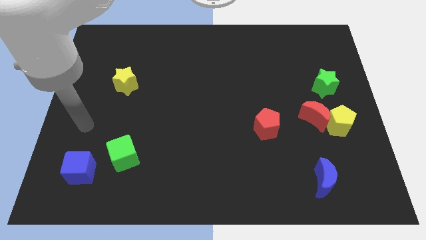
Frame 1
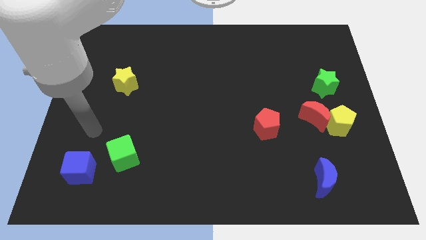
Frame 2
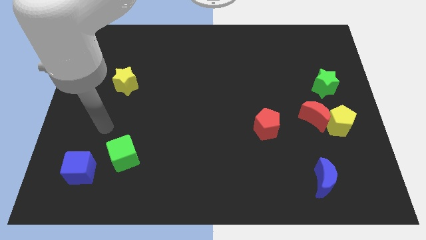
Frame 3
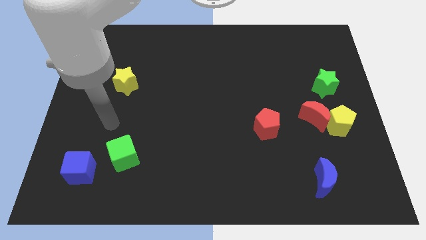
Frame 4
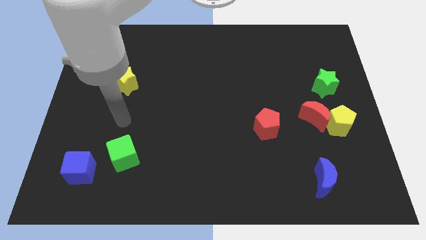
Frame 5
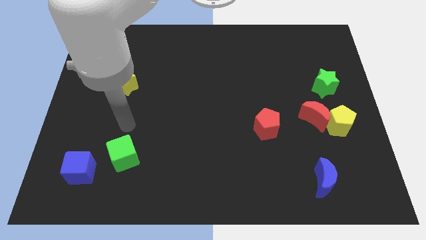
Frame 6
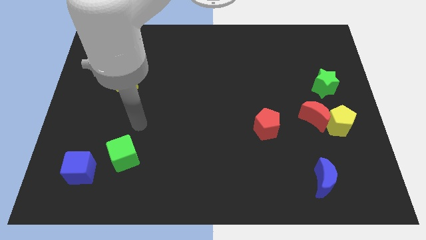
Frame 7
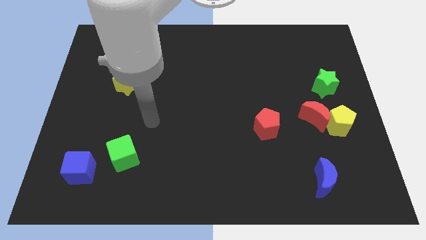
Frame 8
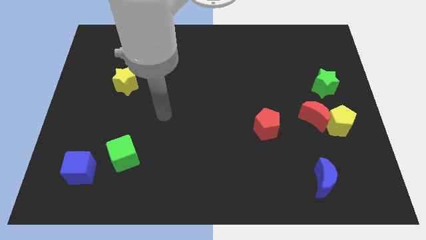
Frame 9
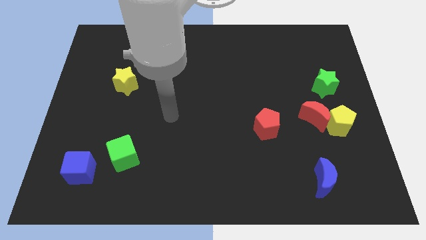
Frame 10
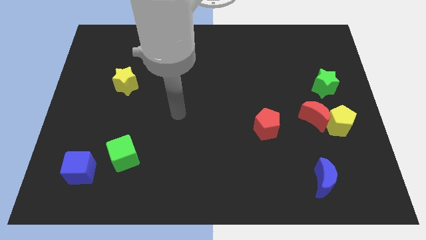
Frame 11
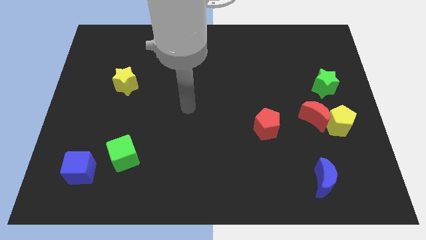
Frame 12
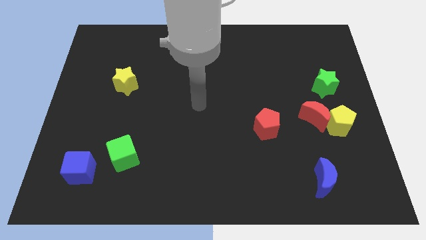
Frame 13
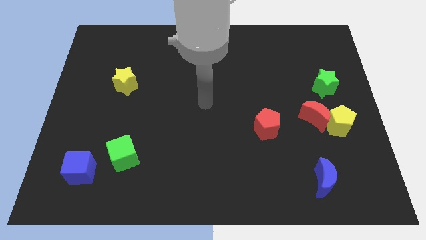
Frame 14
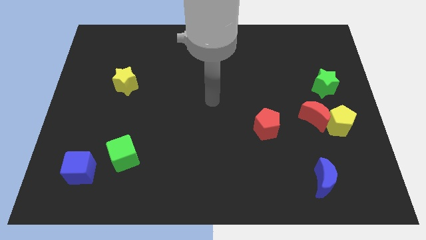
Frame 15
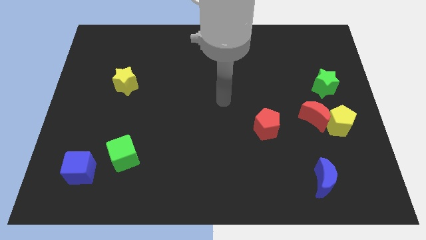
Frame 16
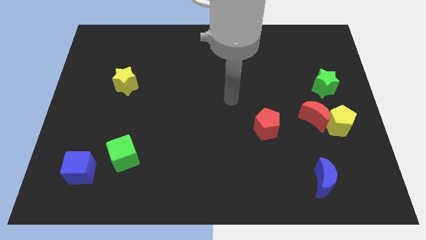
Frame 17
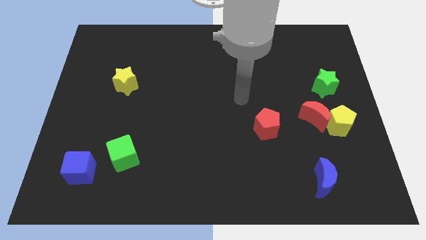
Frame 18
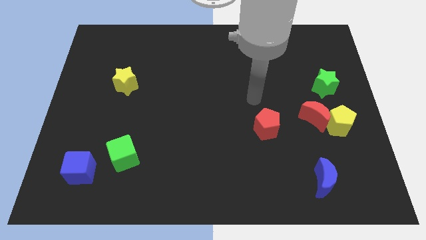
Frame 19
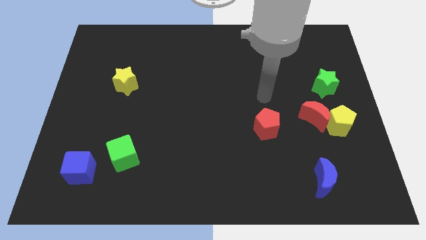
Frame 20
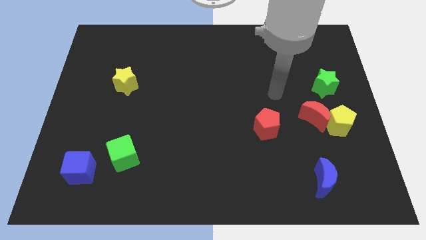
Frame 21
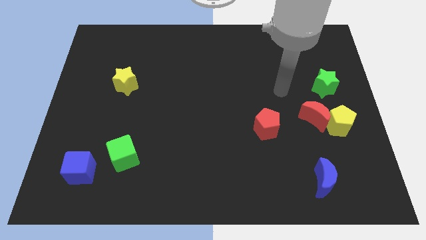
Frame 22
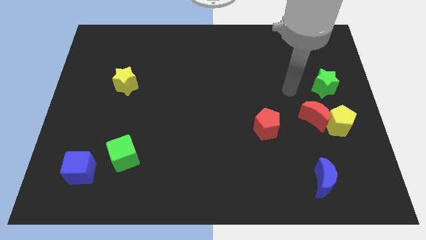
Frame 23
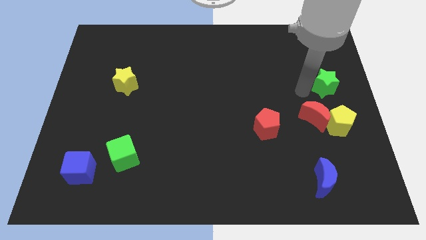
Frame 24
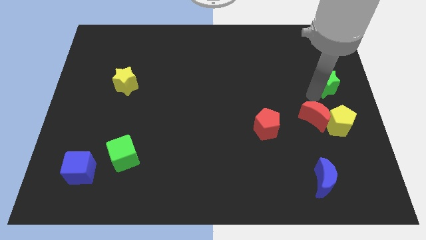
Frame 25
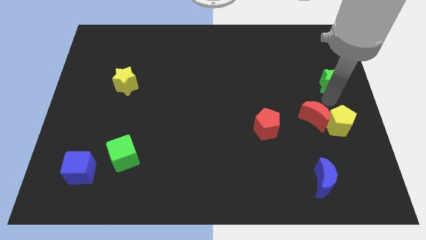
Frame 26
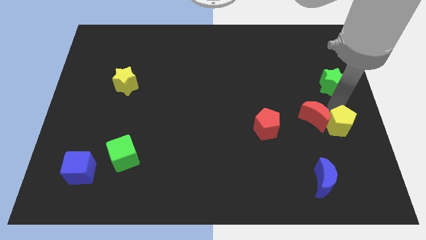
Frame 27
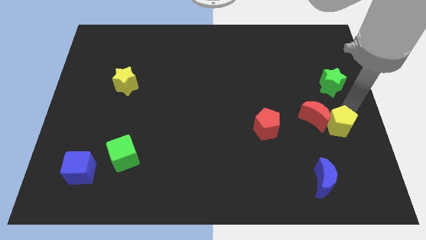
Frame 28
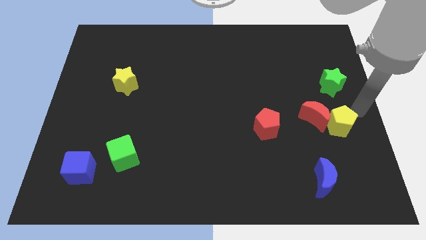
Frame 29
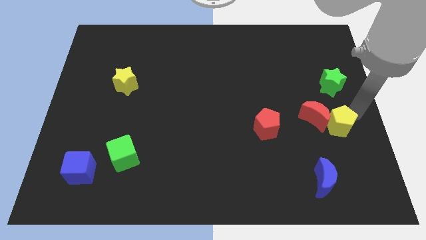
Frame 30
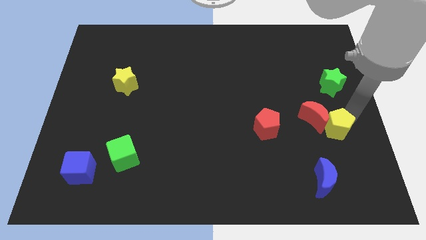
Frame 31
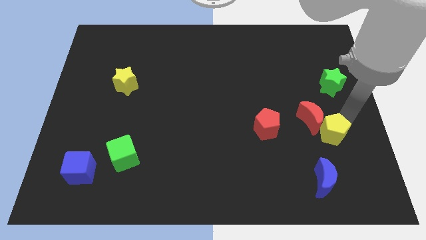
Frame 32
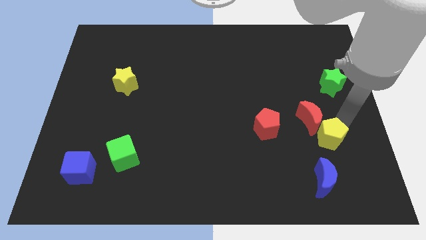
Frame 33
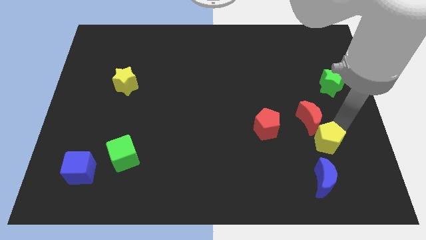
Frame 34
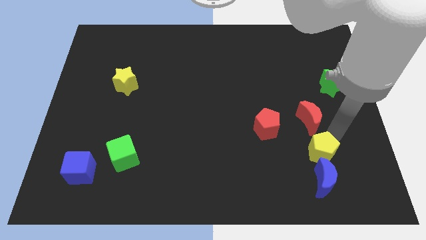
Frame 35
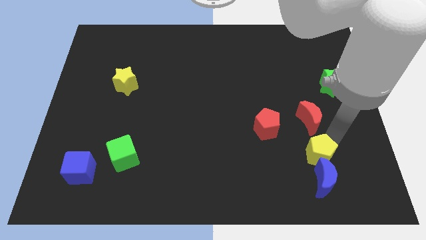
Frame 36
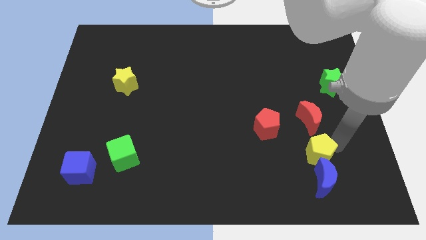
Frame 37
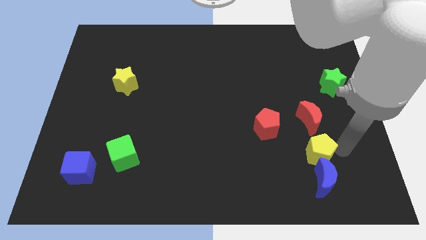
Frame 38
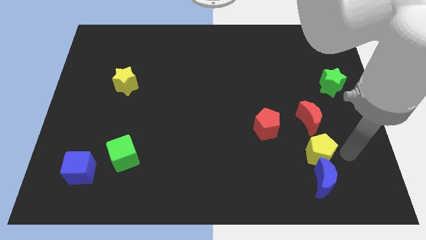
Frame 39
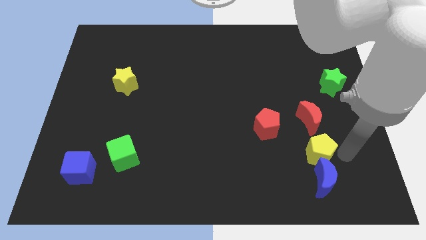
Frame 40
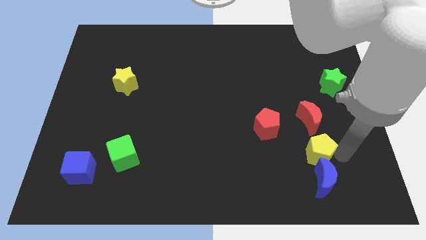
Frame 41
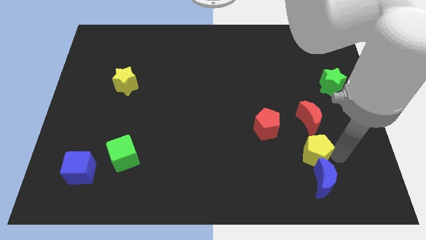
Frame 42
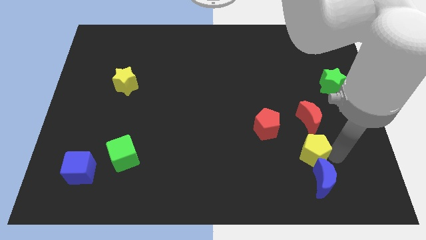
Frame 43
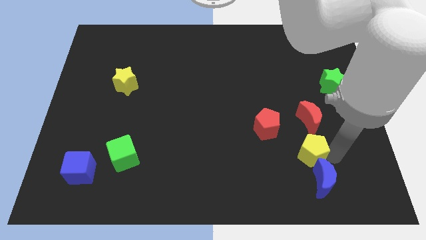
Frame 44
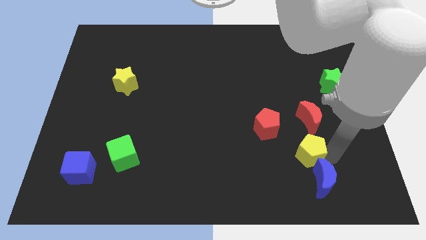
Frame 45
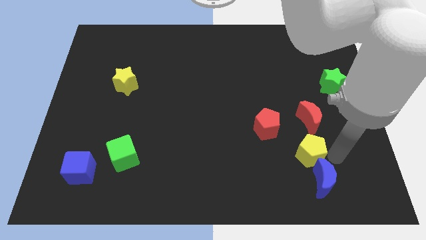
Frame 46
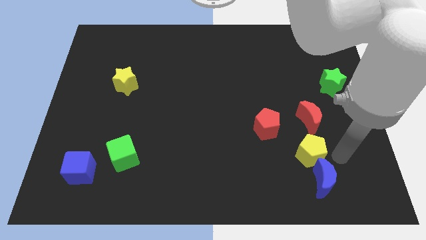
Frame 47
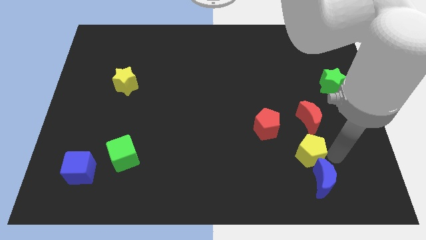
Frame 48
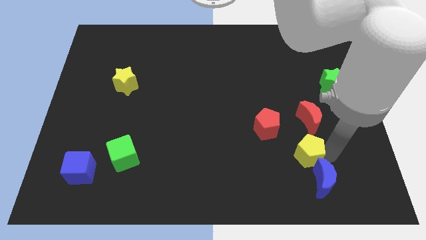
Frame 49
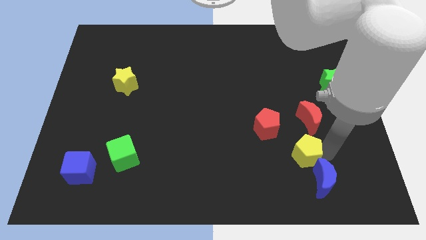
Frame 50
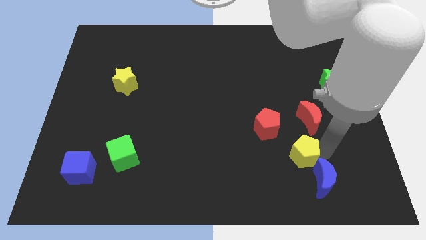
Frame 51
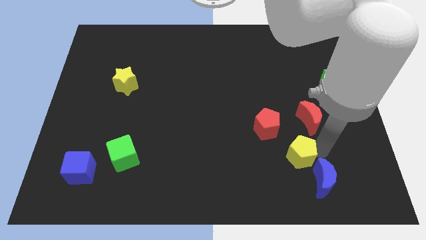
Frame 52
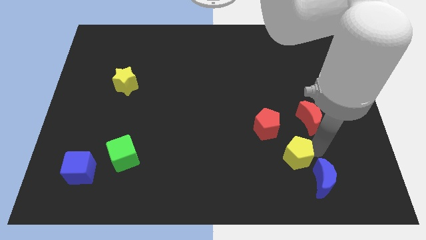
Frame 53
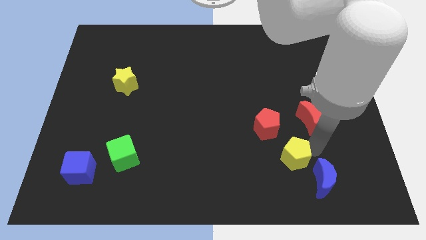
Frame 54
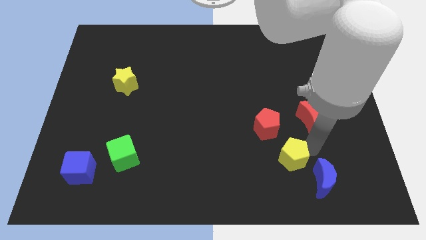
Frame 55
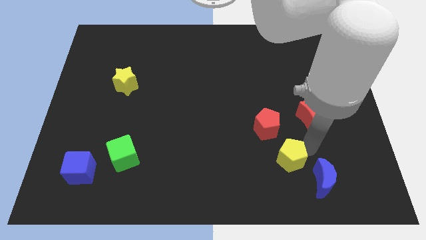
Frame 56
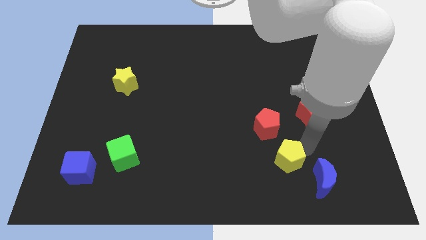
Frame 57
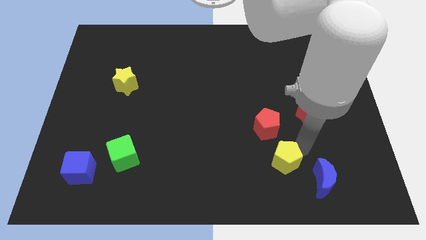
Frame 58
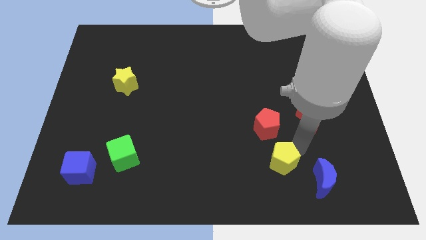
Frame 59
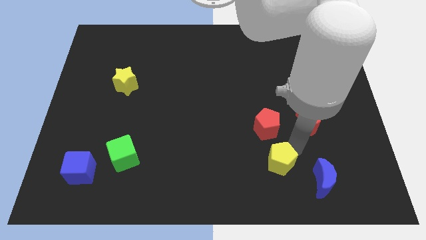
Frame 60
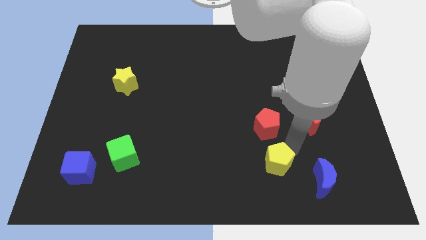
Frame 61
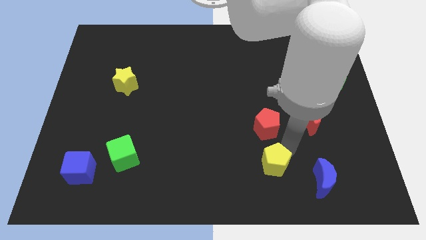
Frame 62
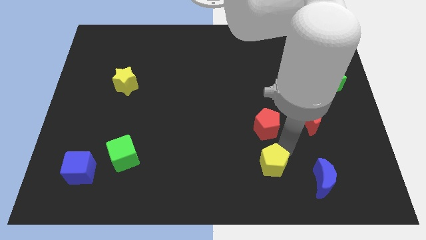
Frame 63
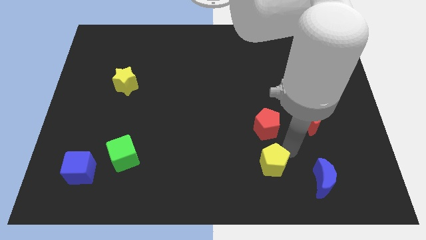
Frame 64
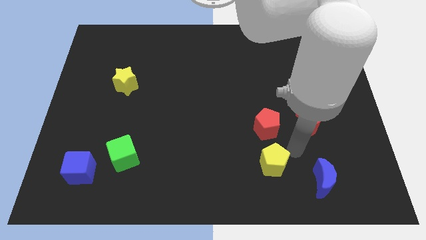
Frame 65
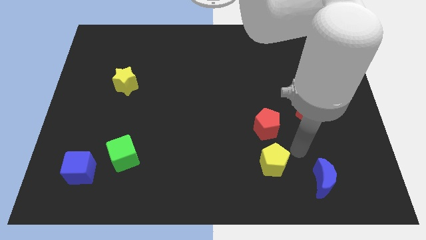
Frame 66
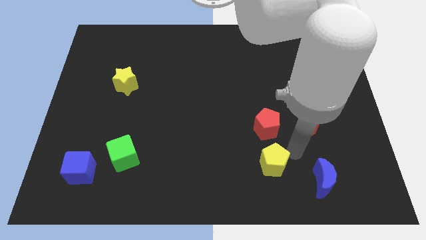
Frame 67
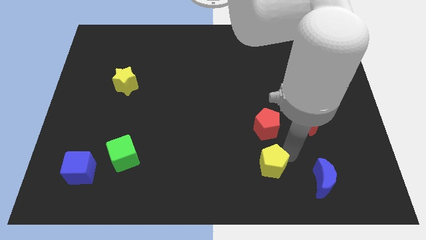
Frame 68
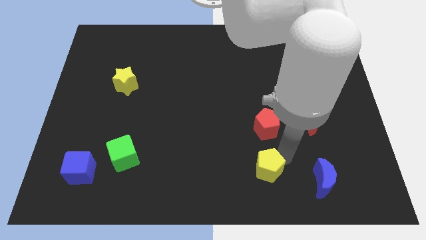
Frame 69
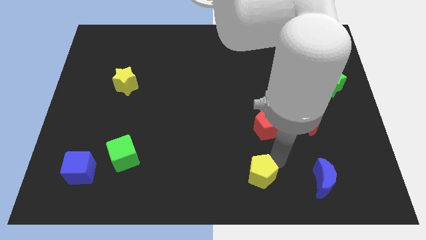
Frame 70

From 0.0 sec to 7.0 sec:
push the yellow pentagon to the bottom
